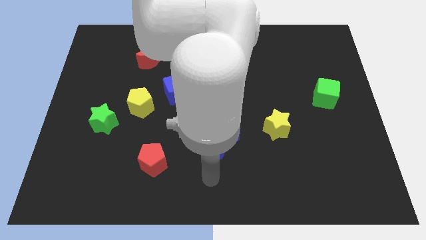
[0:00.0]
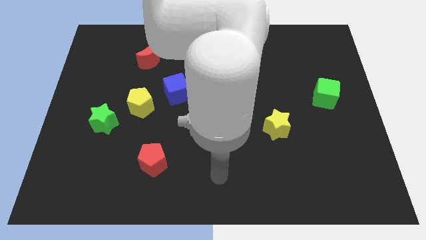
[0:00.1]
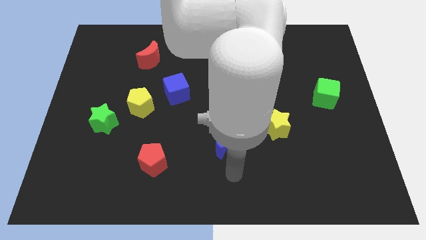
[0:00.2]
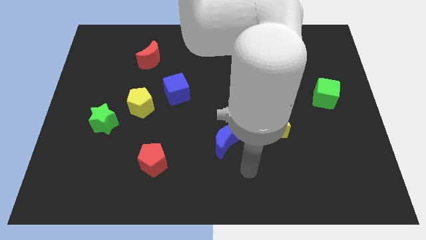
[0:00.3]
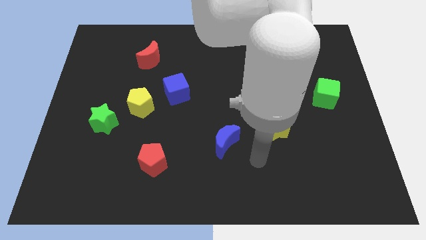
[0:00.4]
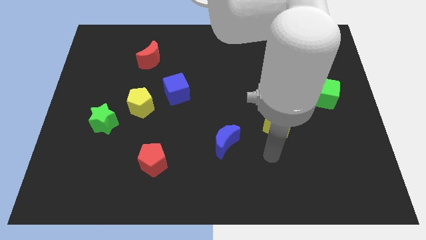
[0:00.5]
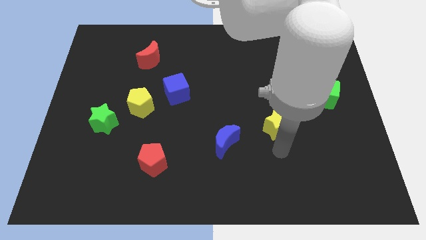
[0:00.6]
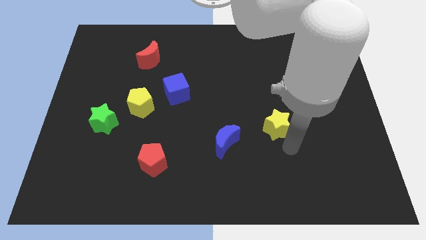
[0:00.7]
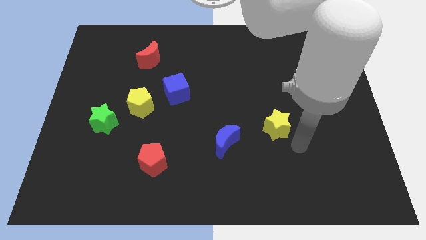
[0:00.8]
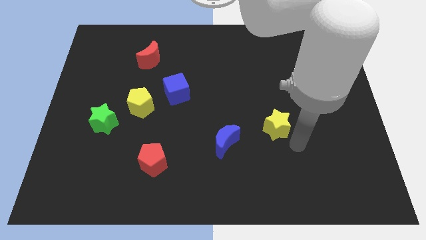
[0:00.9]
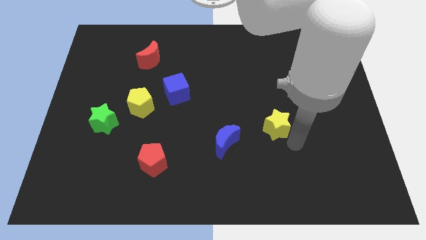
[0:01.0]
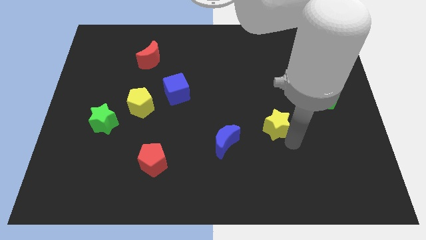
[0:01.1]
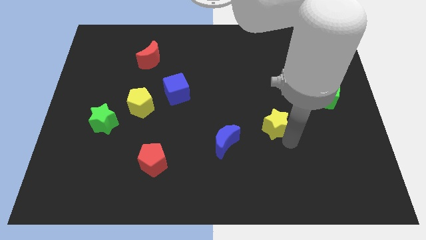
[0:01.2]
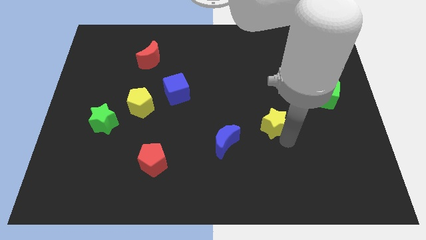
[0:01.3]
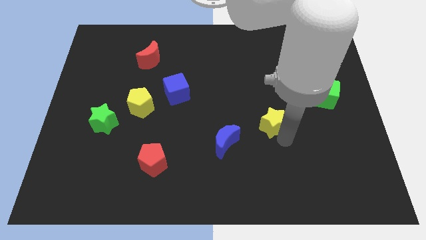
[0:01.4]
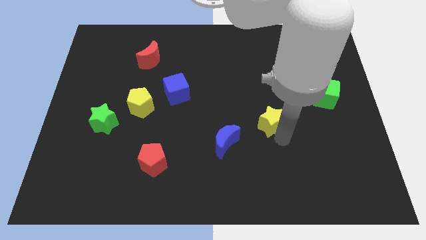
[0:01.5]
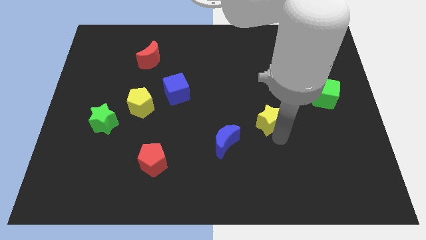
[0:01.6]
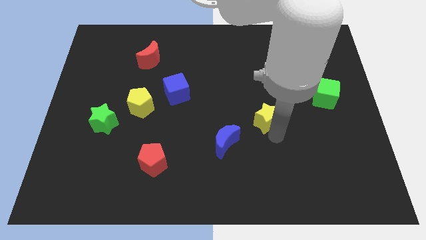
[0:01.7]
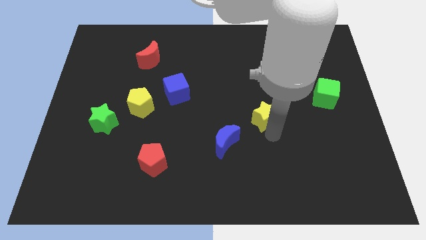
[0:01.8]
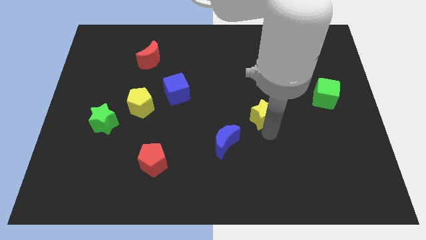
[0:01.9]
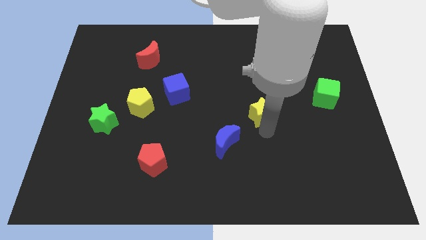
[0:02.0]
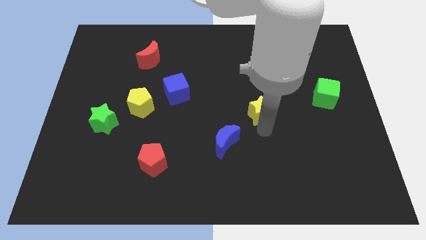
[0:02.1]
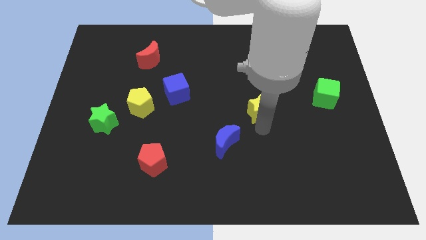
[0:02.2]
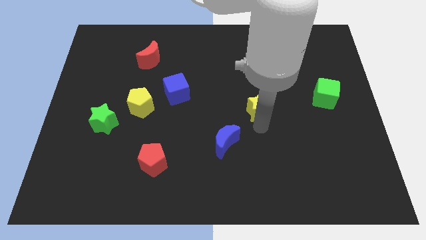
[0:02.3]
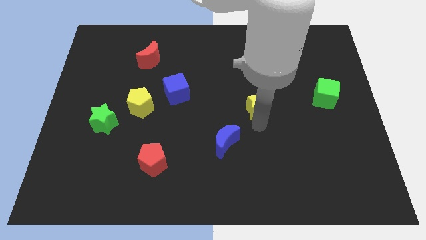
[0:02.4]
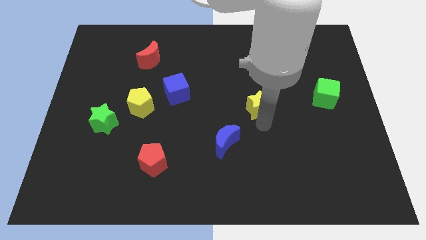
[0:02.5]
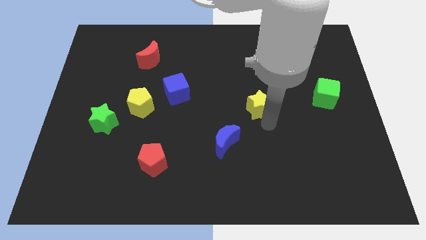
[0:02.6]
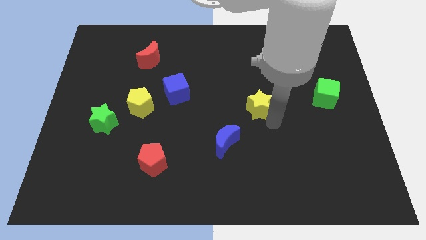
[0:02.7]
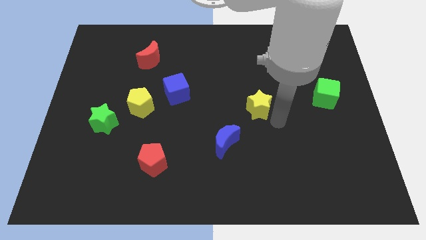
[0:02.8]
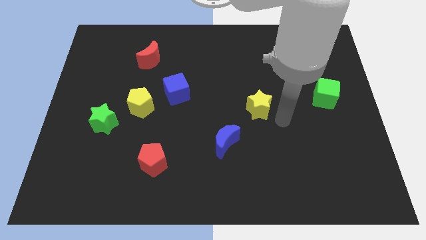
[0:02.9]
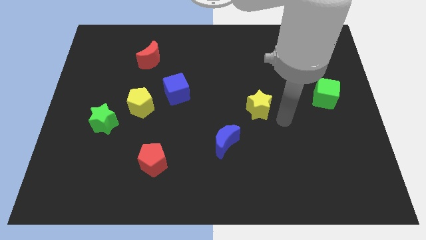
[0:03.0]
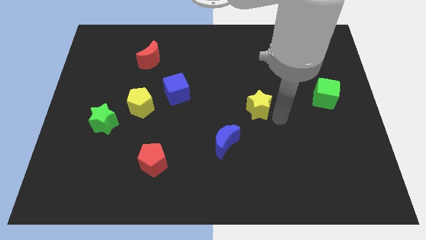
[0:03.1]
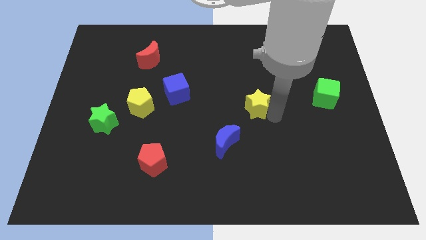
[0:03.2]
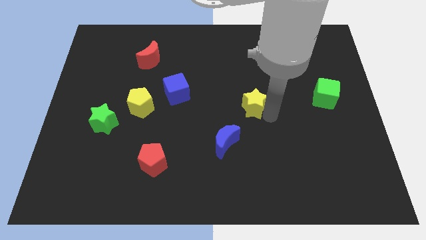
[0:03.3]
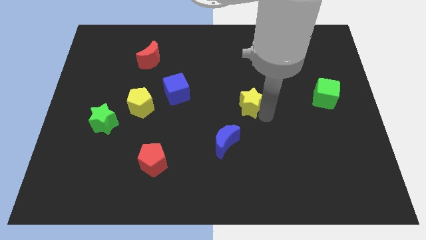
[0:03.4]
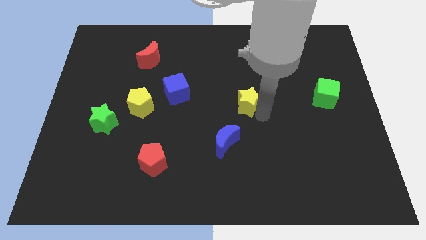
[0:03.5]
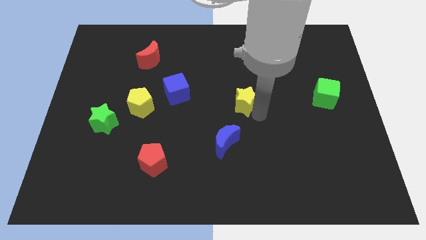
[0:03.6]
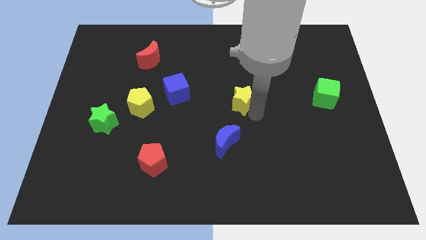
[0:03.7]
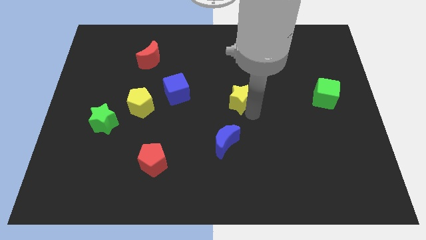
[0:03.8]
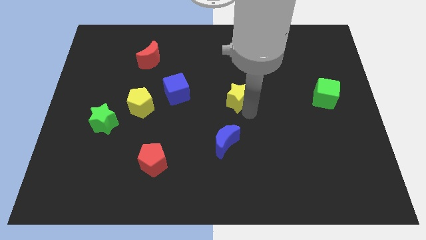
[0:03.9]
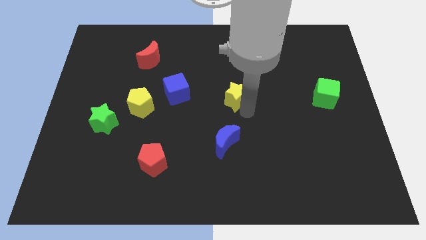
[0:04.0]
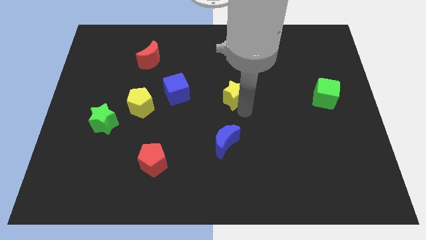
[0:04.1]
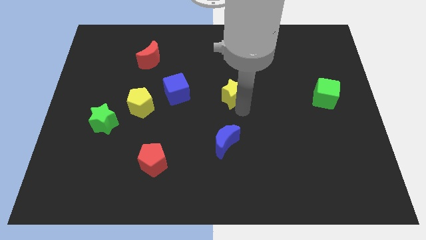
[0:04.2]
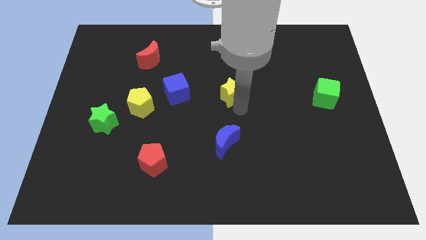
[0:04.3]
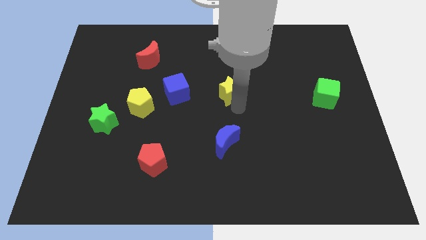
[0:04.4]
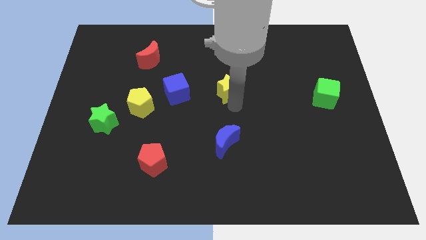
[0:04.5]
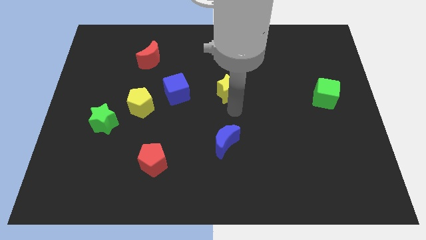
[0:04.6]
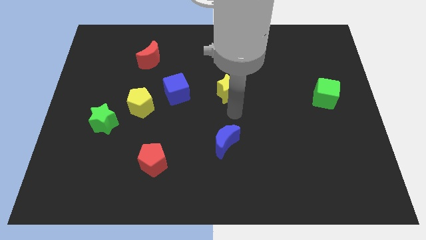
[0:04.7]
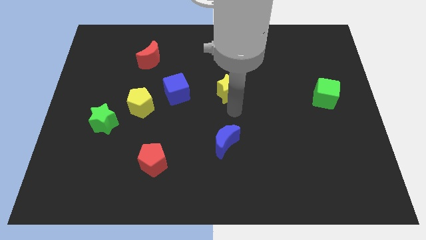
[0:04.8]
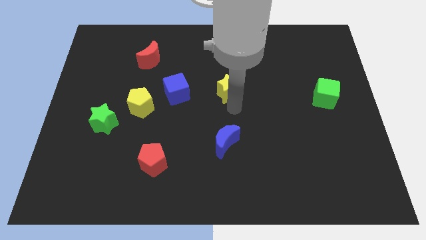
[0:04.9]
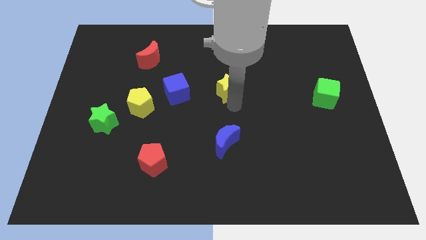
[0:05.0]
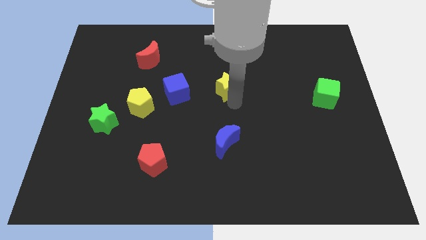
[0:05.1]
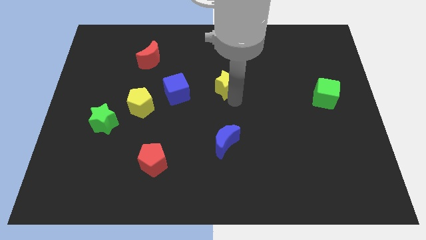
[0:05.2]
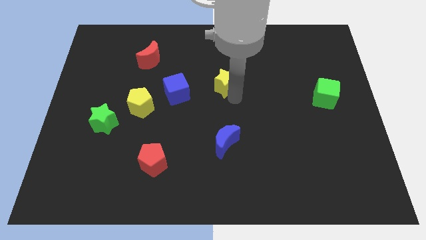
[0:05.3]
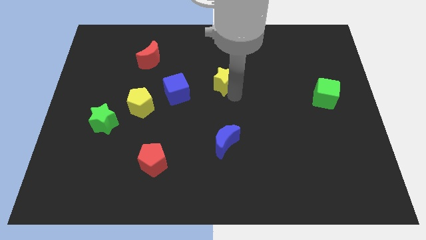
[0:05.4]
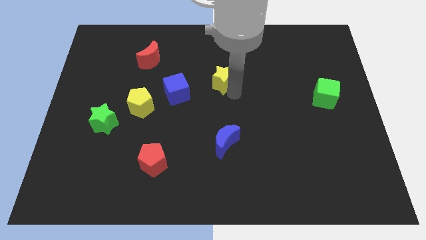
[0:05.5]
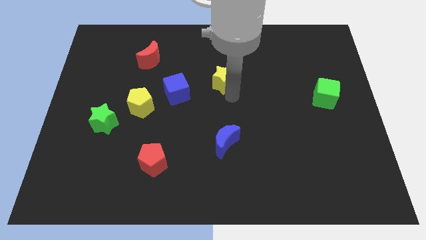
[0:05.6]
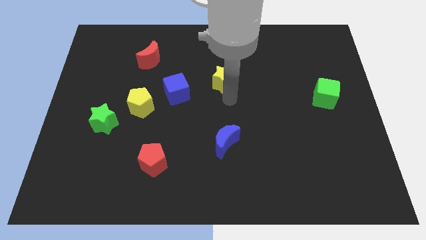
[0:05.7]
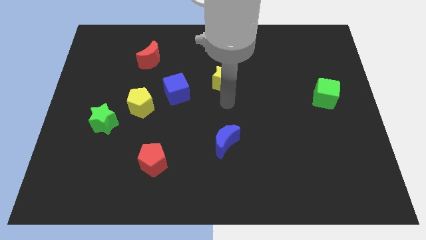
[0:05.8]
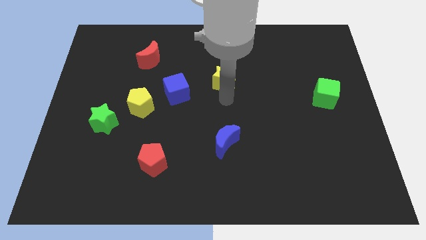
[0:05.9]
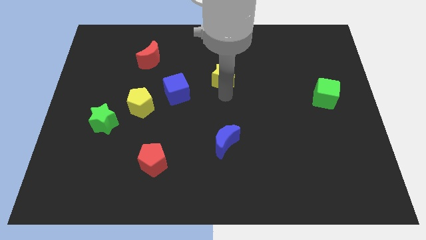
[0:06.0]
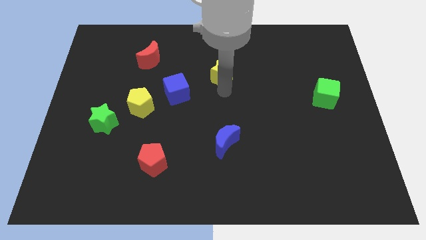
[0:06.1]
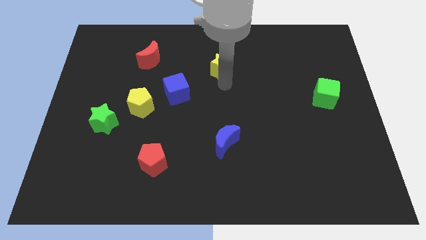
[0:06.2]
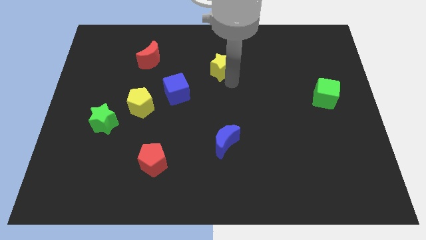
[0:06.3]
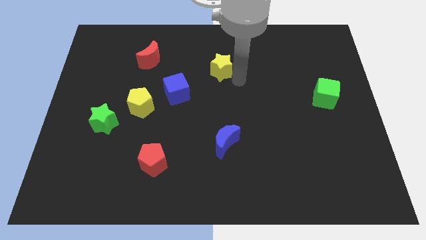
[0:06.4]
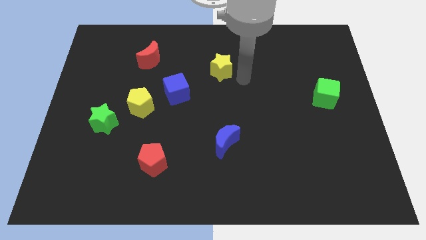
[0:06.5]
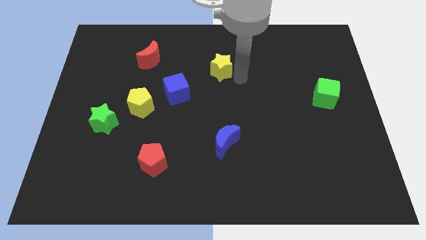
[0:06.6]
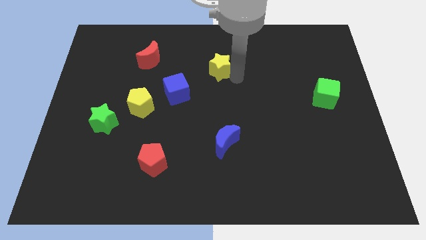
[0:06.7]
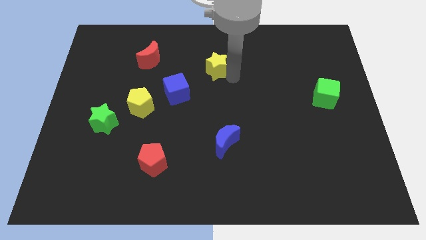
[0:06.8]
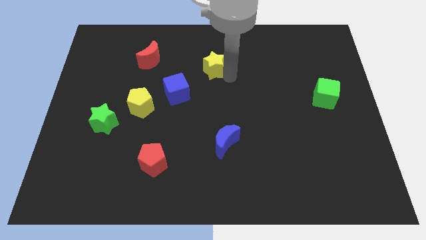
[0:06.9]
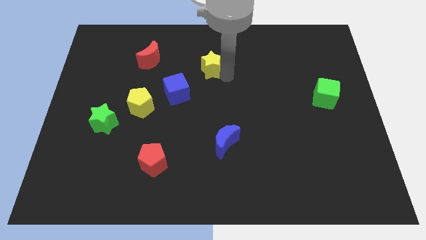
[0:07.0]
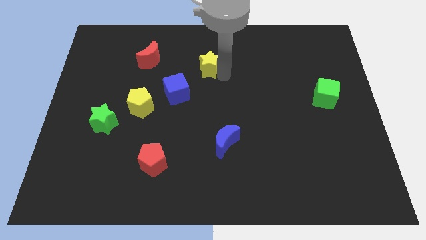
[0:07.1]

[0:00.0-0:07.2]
move the yellow star just right of the red moon
